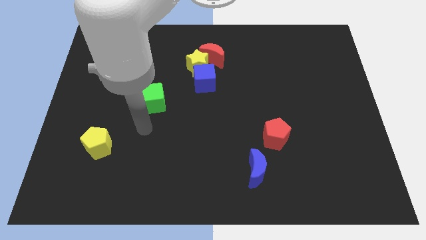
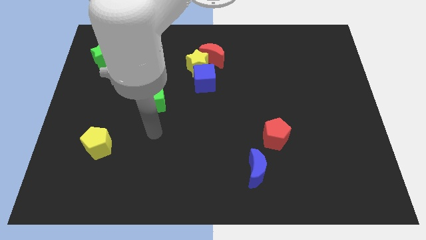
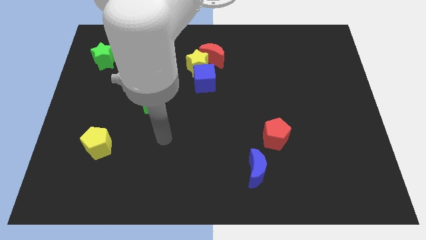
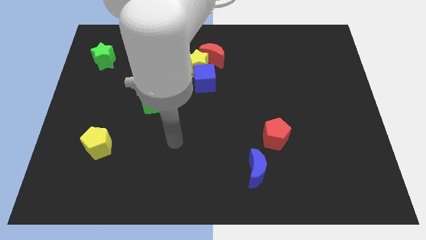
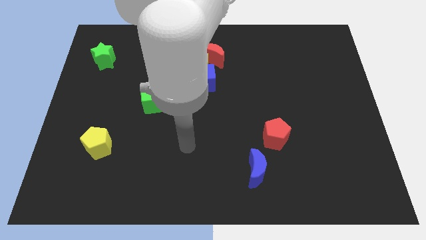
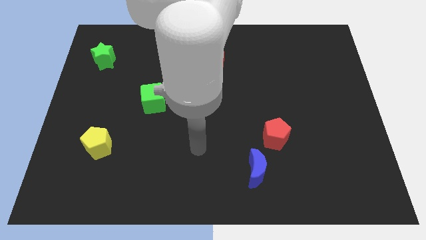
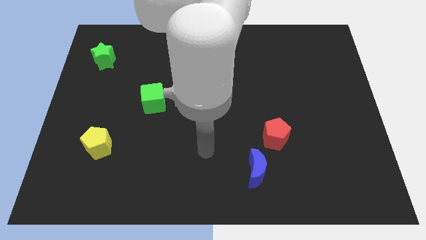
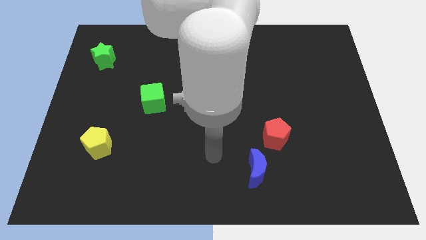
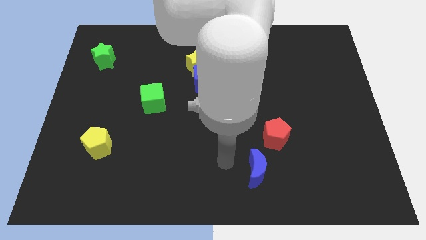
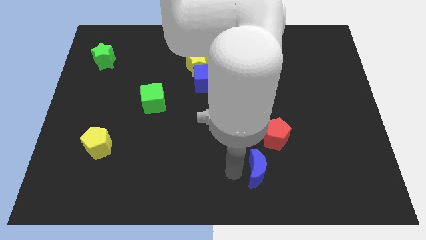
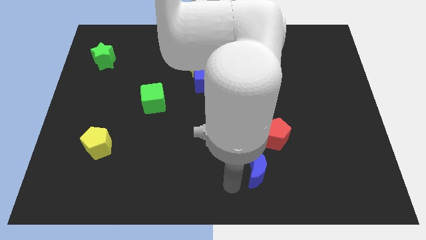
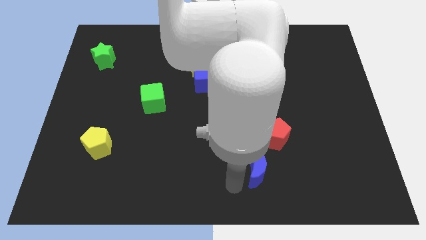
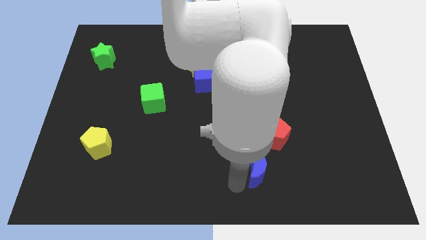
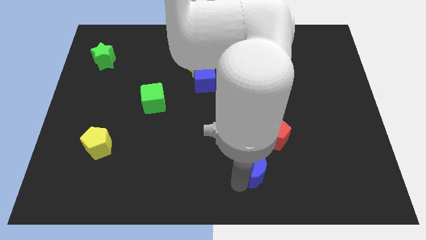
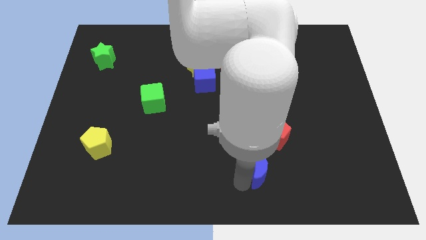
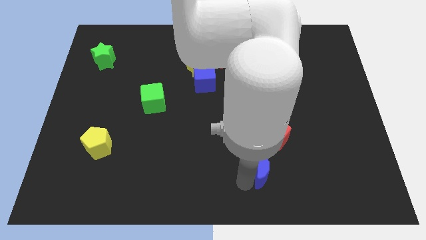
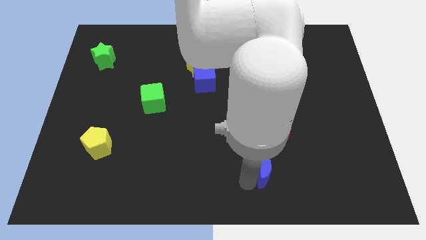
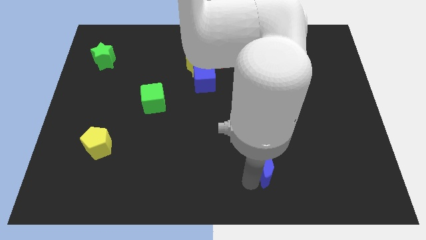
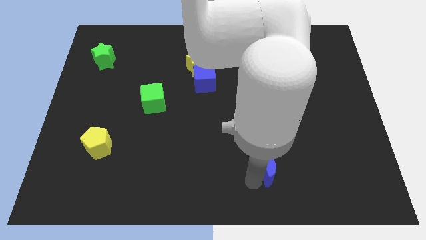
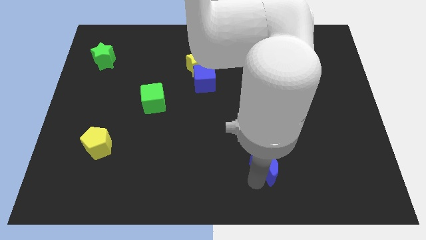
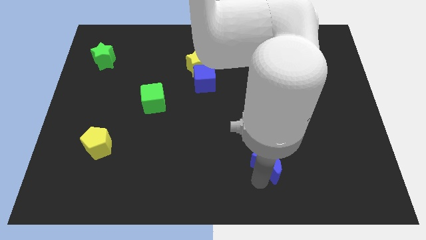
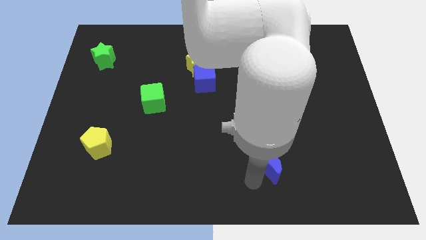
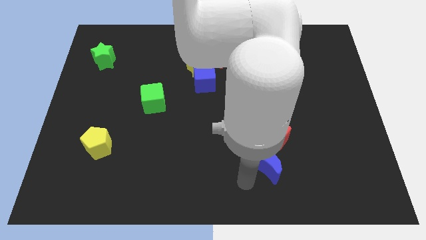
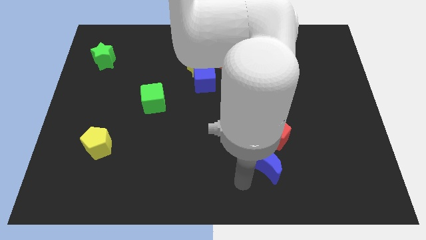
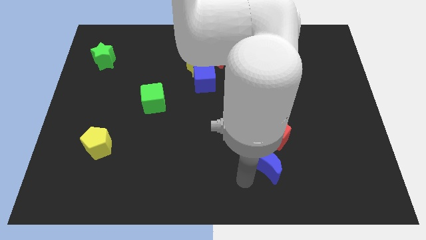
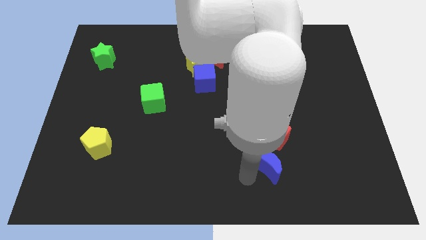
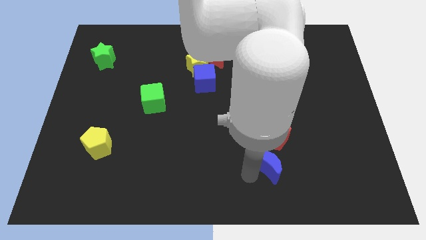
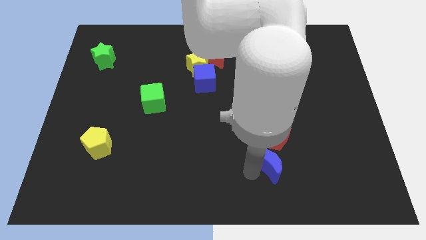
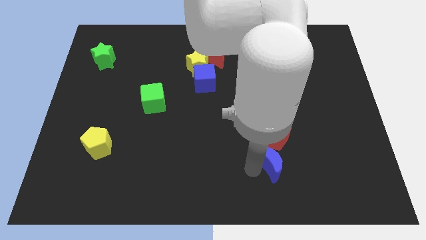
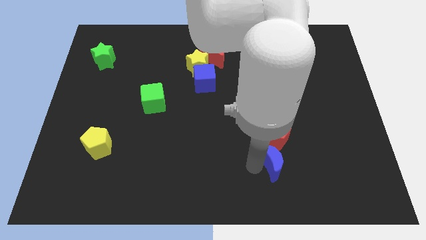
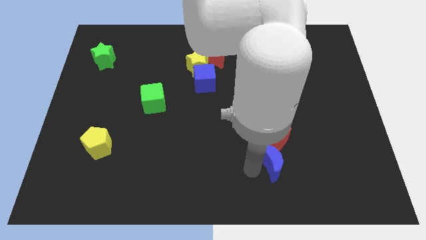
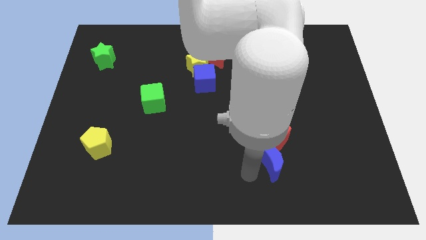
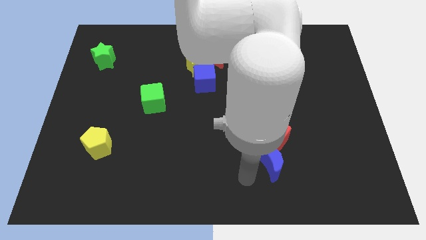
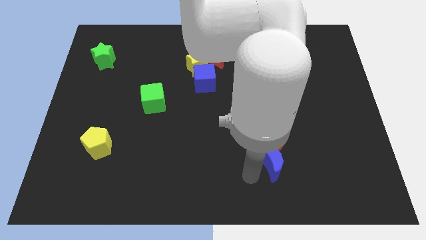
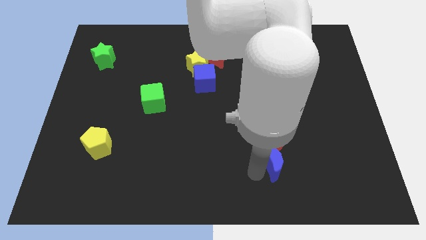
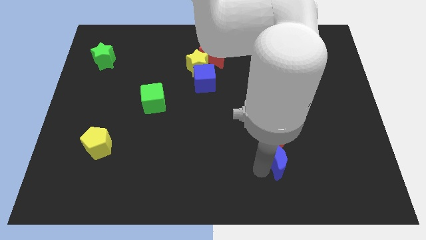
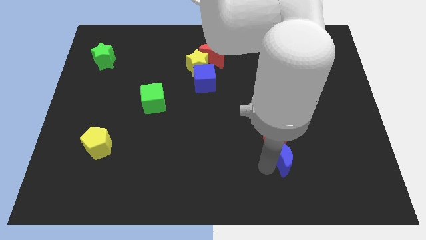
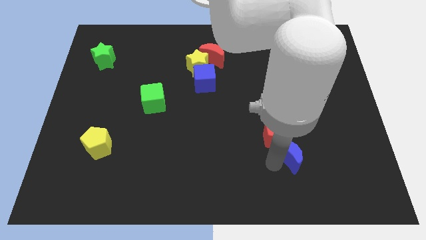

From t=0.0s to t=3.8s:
slightly move the blue moon up and right

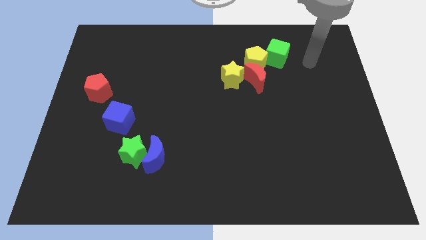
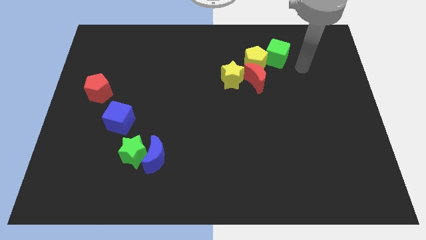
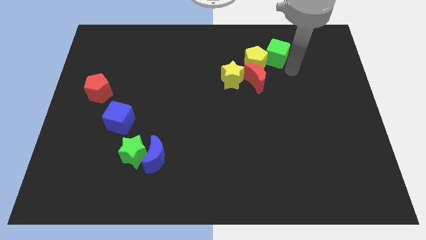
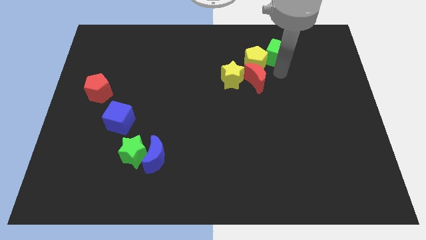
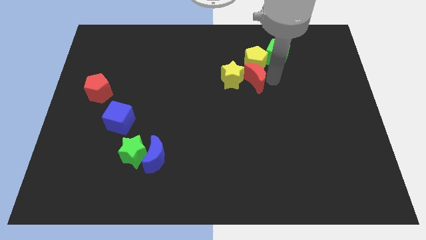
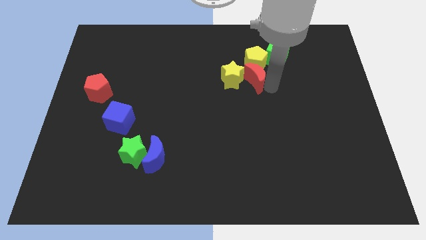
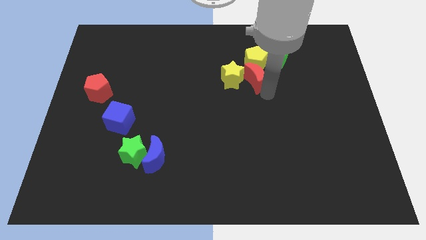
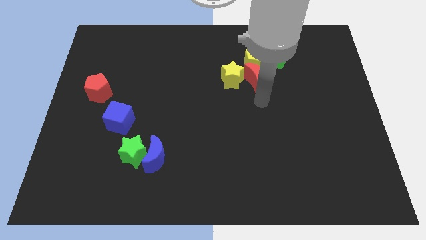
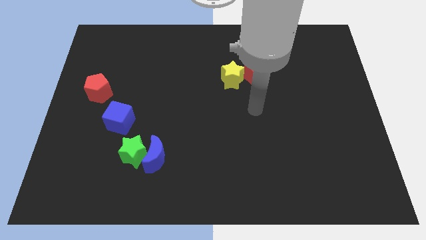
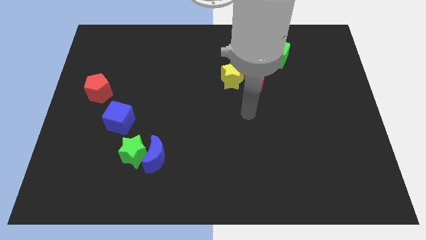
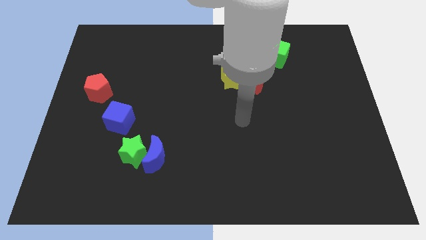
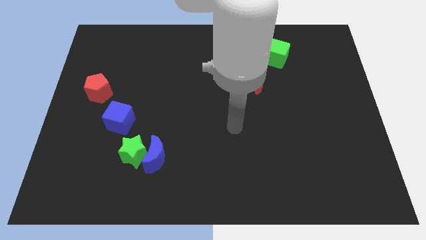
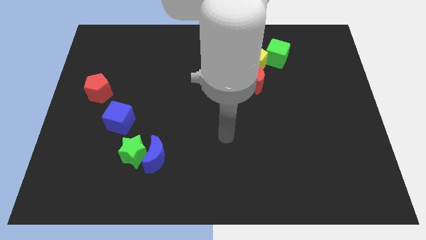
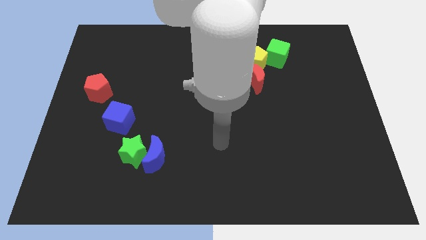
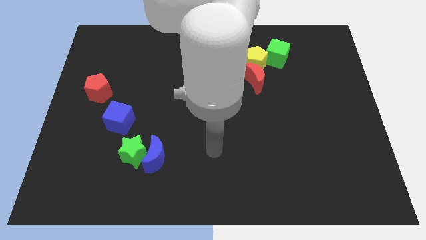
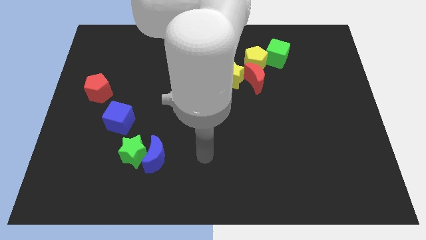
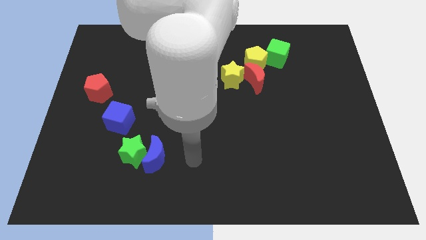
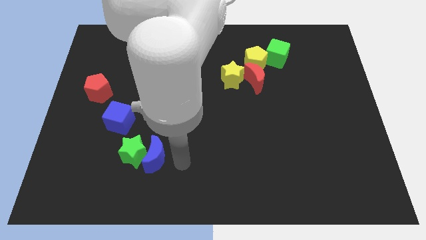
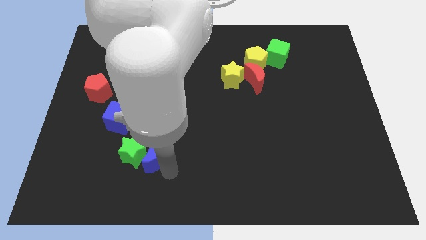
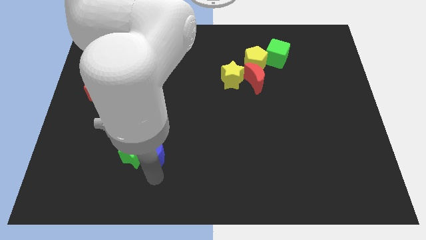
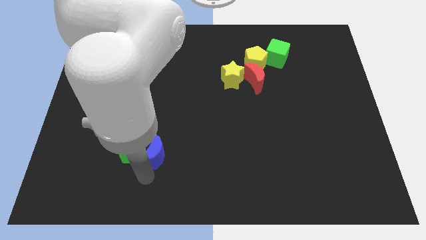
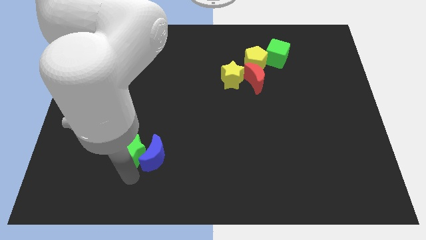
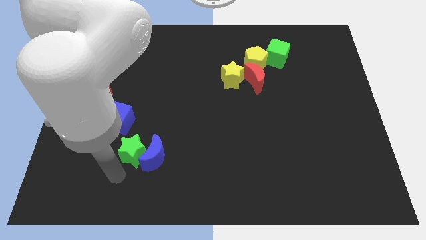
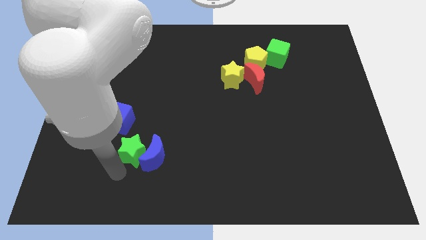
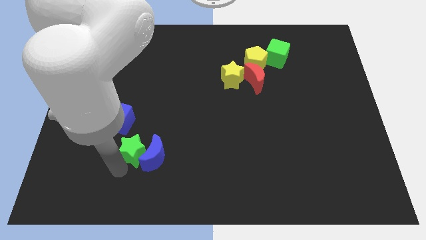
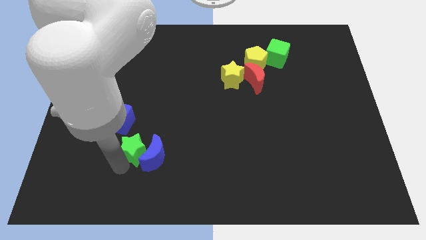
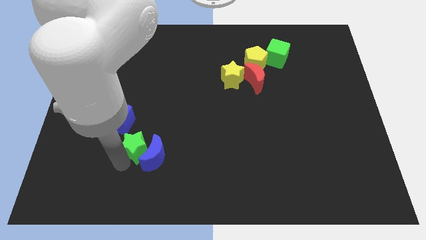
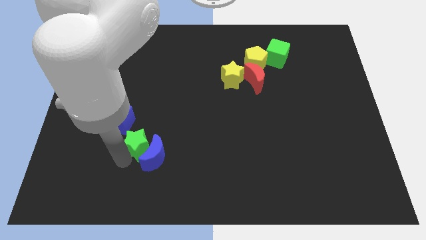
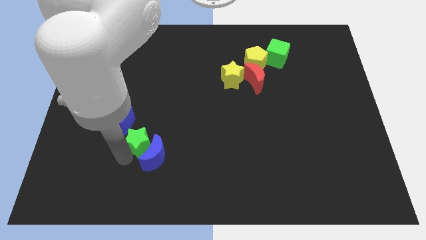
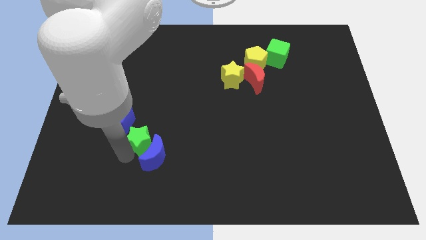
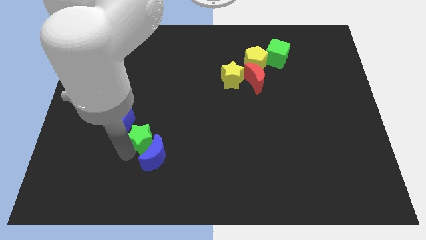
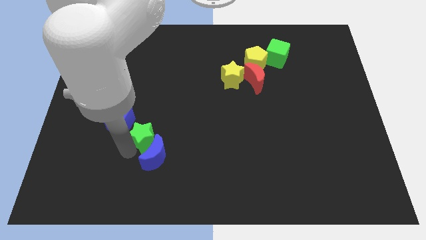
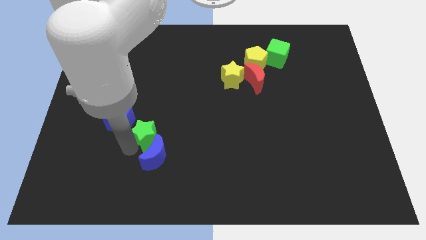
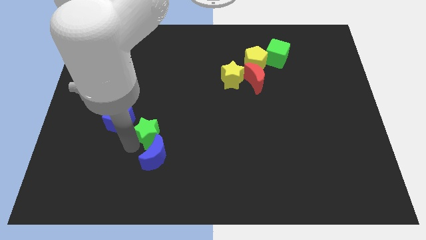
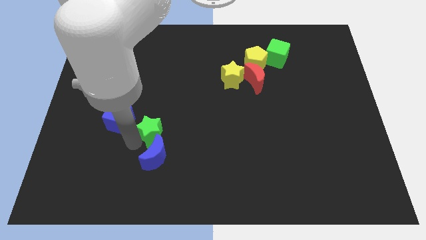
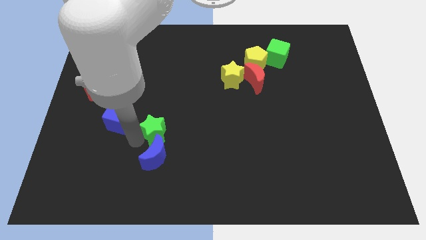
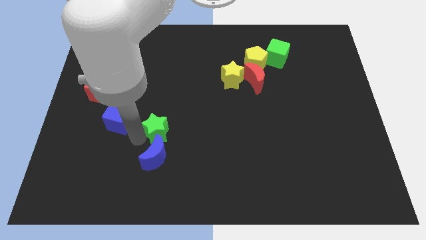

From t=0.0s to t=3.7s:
slightly move the green star up and right

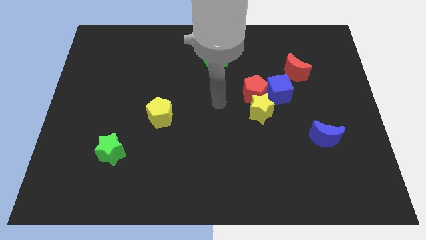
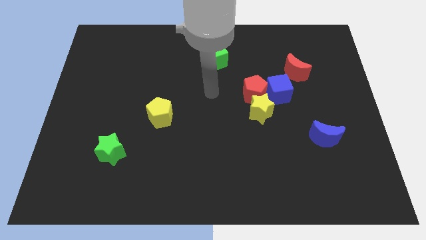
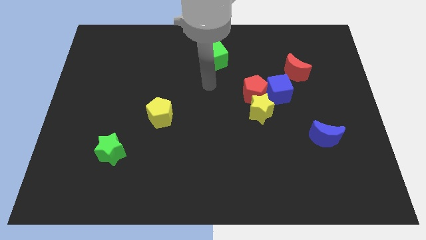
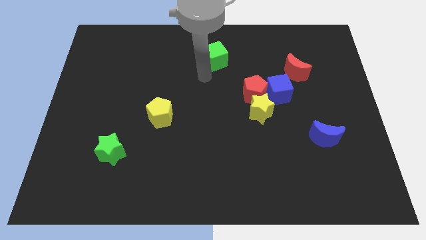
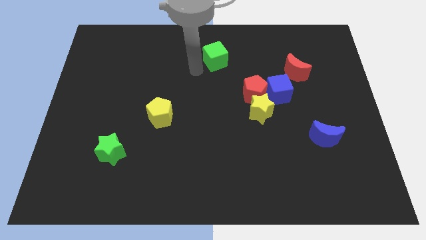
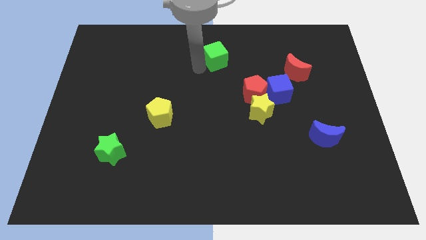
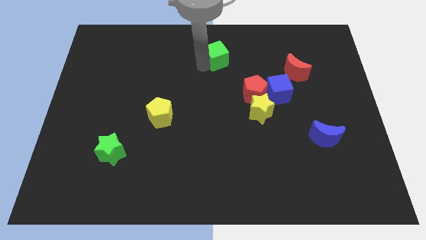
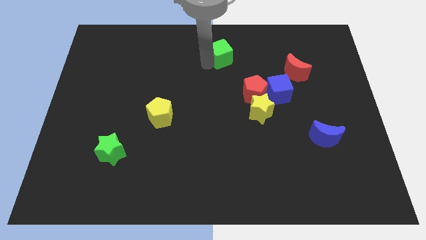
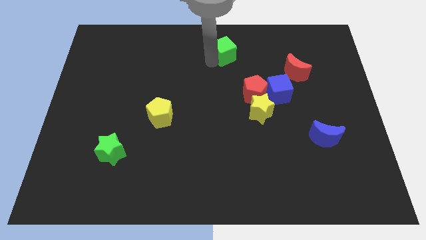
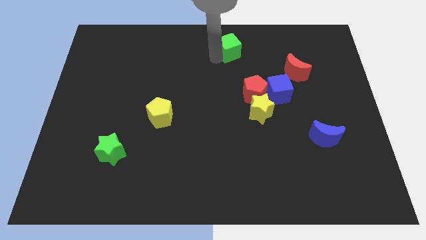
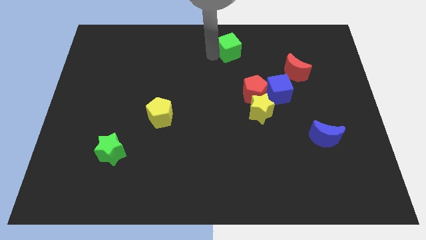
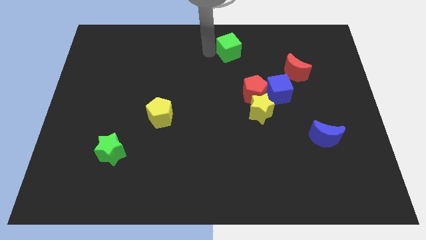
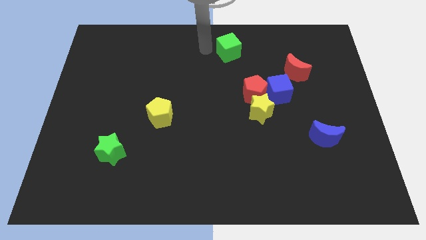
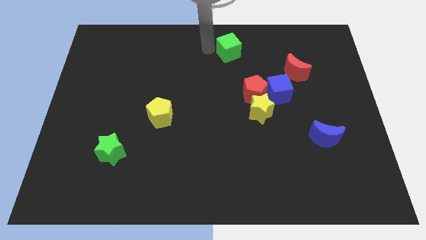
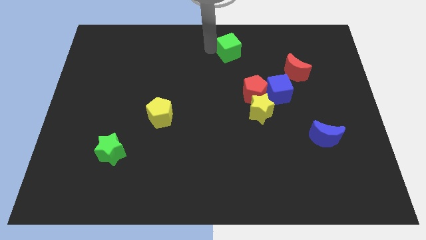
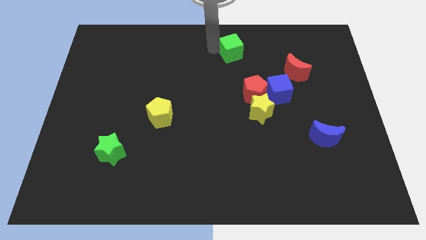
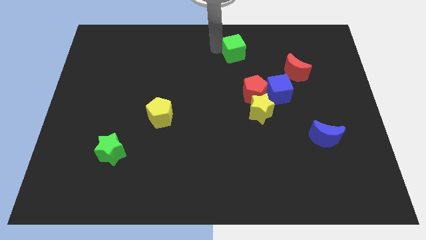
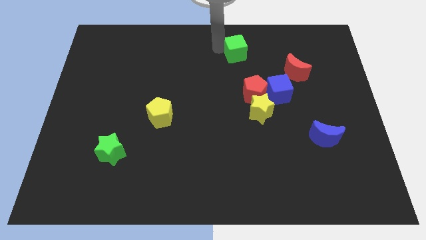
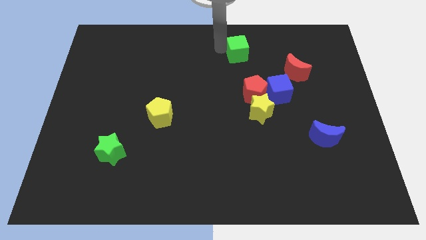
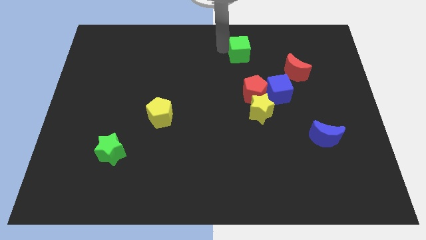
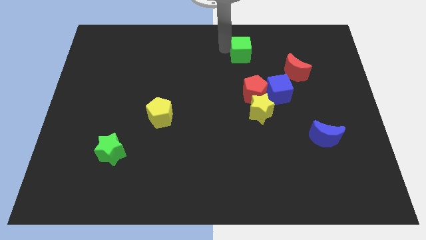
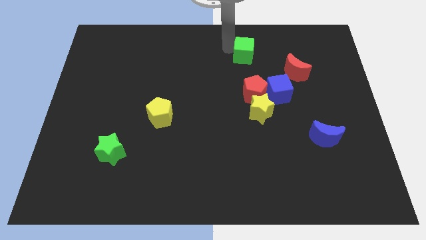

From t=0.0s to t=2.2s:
slightly move the green cube to the right
